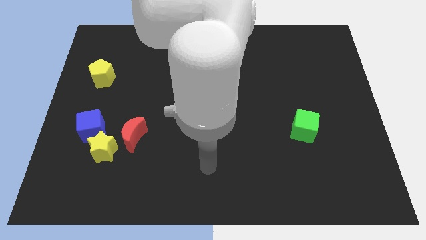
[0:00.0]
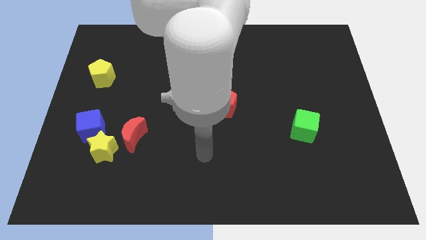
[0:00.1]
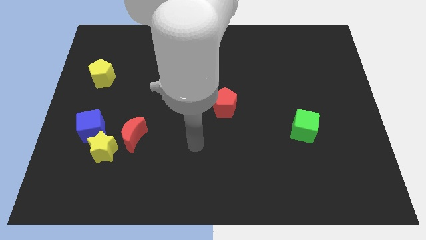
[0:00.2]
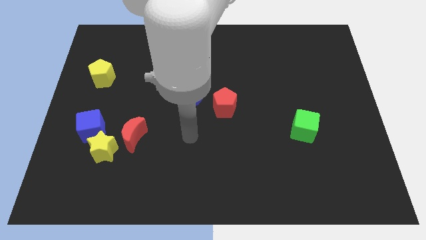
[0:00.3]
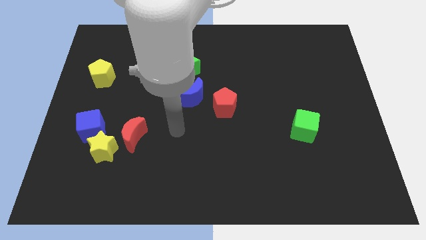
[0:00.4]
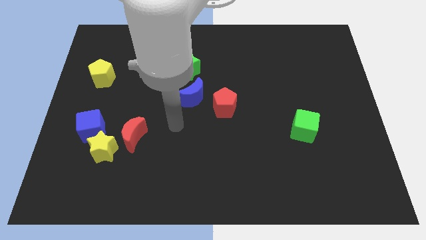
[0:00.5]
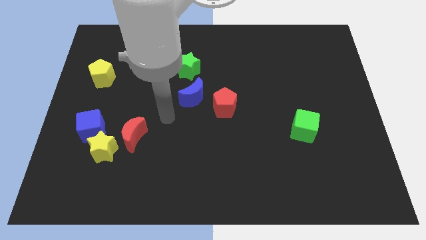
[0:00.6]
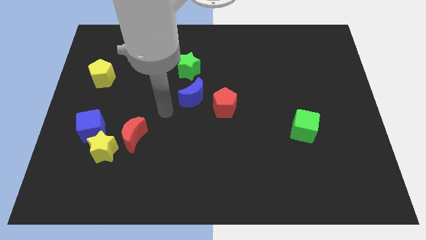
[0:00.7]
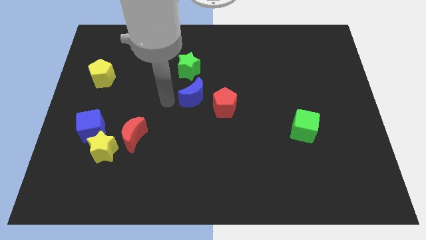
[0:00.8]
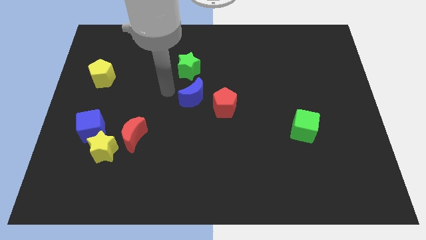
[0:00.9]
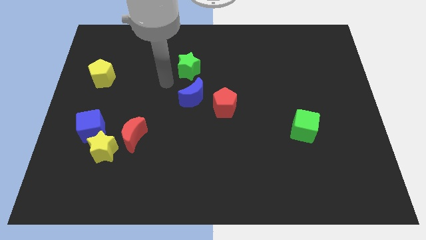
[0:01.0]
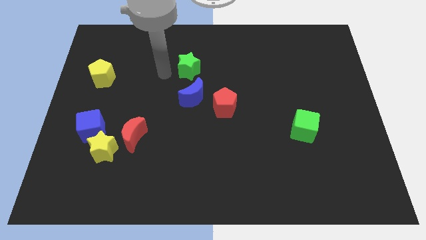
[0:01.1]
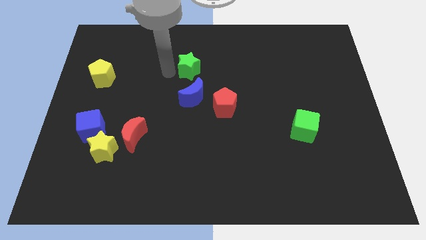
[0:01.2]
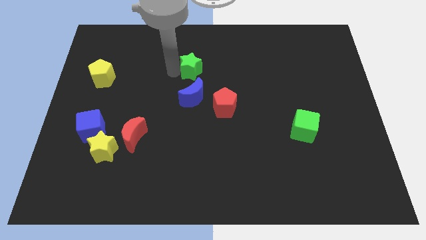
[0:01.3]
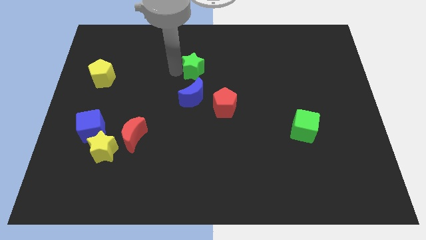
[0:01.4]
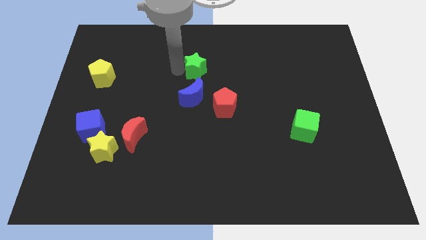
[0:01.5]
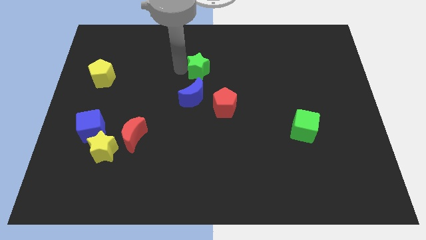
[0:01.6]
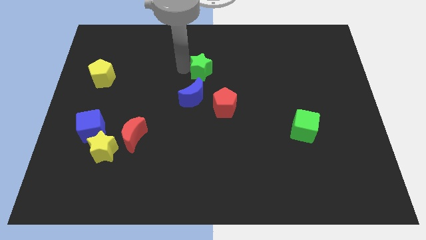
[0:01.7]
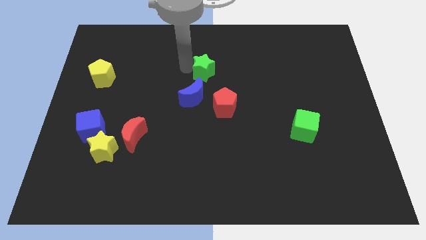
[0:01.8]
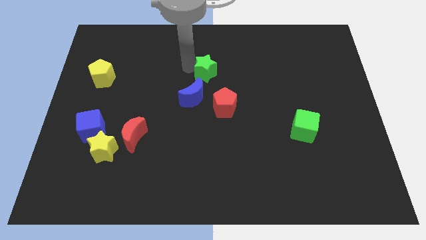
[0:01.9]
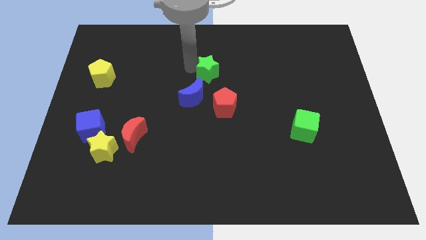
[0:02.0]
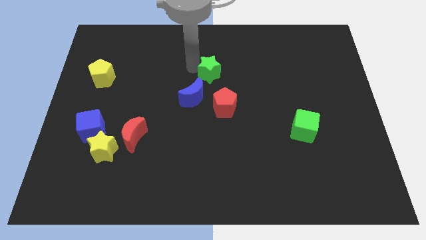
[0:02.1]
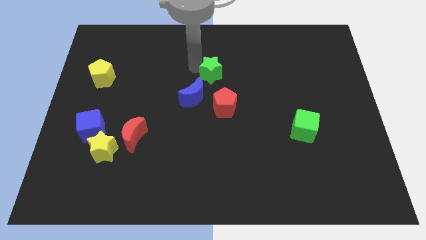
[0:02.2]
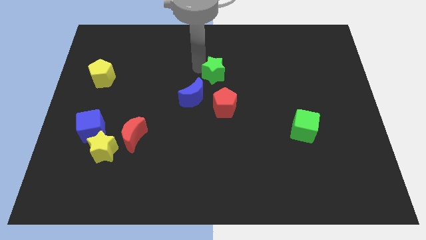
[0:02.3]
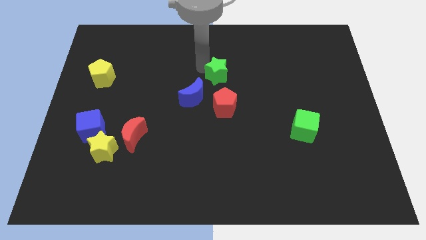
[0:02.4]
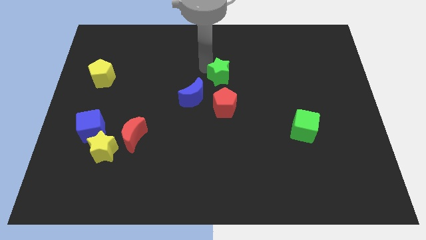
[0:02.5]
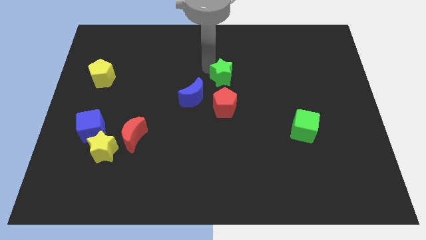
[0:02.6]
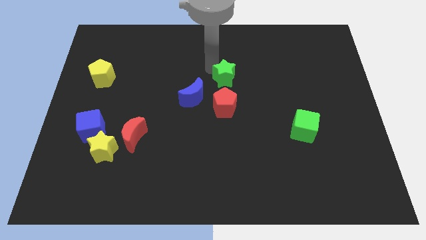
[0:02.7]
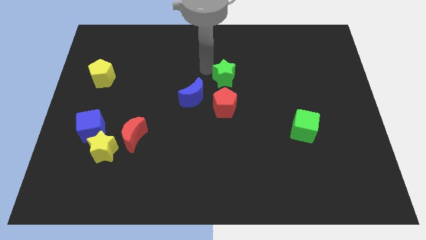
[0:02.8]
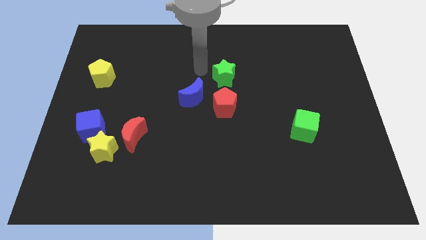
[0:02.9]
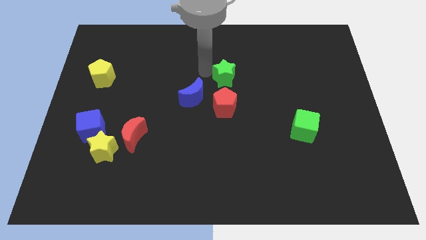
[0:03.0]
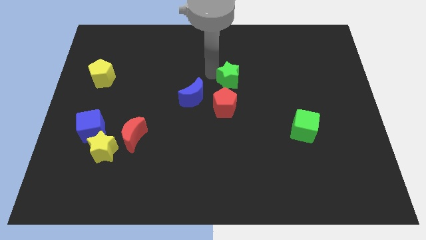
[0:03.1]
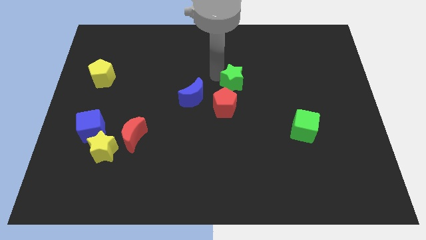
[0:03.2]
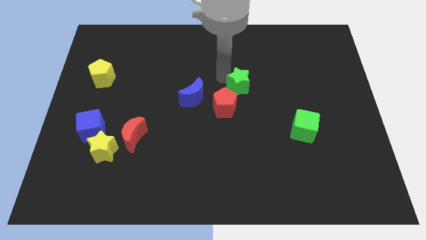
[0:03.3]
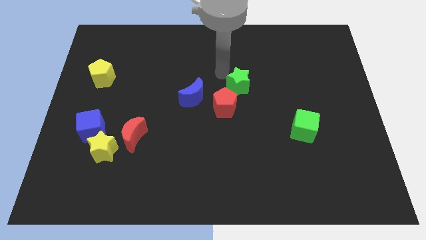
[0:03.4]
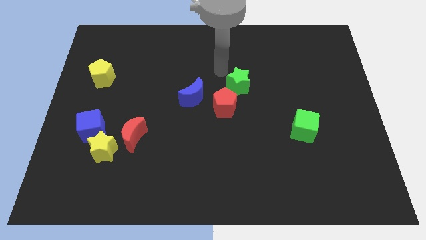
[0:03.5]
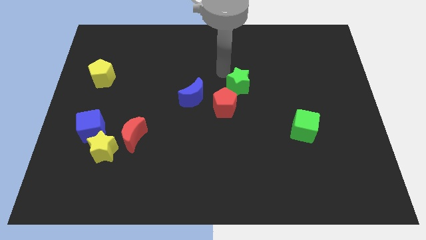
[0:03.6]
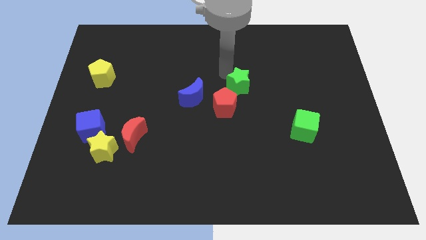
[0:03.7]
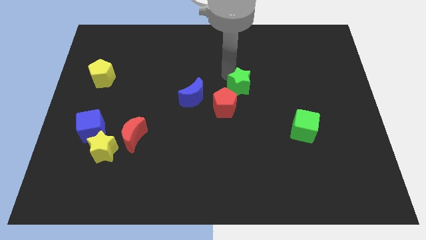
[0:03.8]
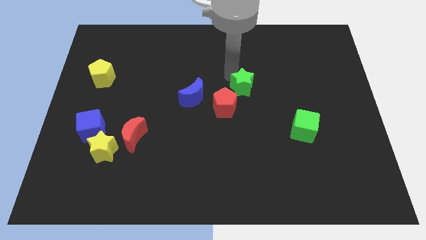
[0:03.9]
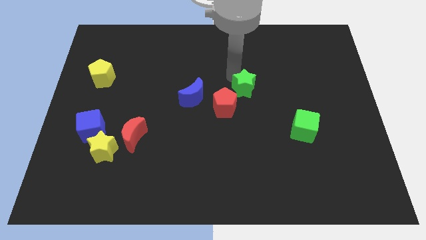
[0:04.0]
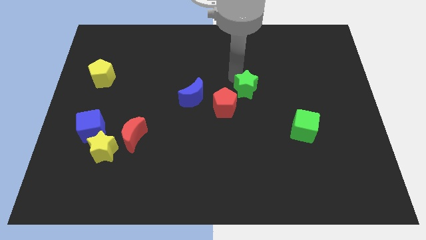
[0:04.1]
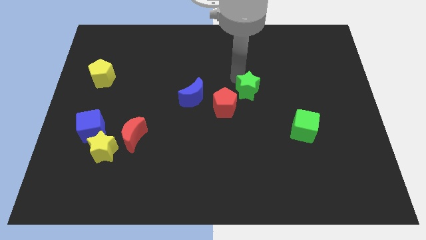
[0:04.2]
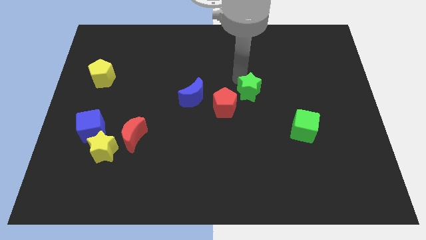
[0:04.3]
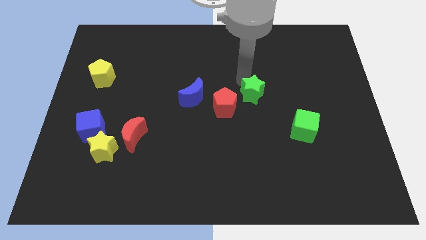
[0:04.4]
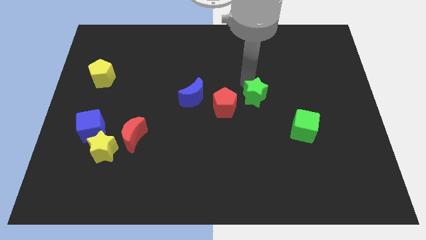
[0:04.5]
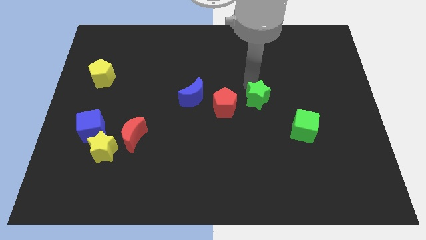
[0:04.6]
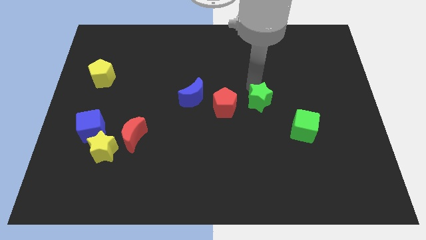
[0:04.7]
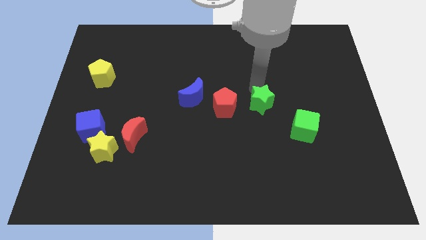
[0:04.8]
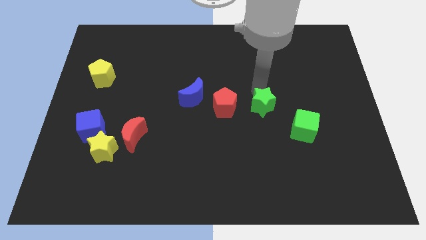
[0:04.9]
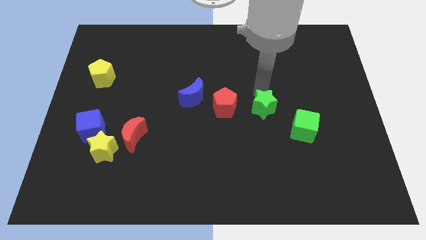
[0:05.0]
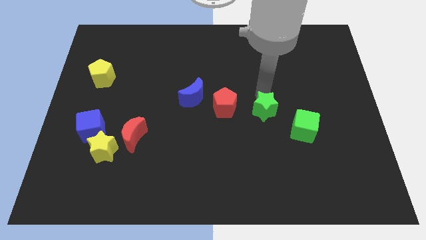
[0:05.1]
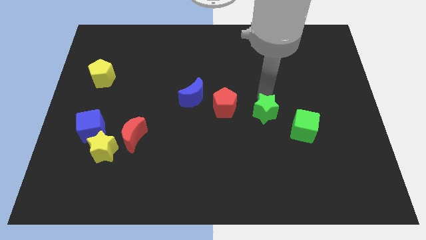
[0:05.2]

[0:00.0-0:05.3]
move the green star just left of the green cube

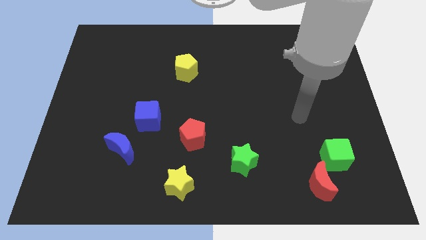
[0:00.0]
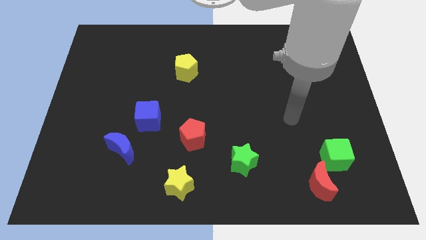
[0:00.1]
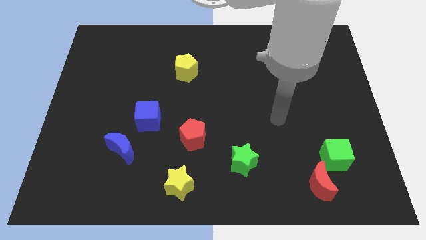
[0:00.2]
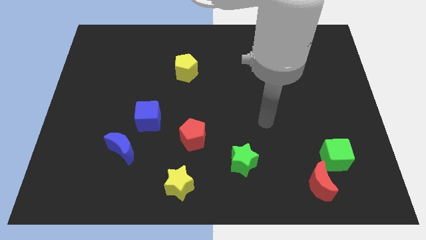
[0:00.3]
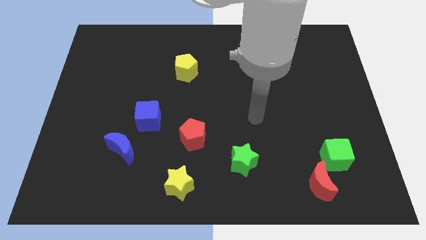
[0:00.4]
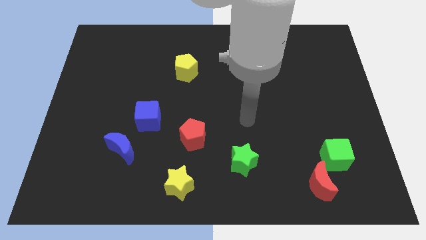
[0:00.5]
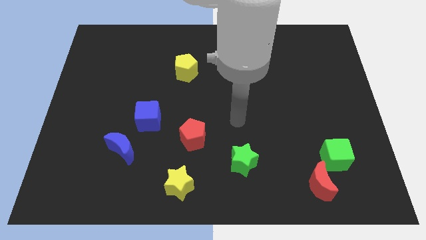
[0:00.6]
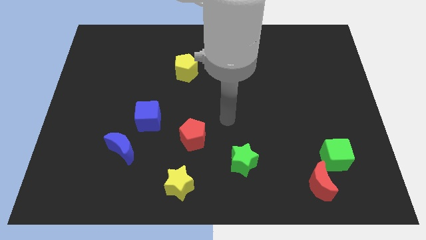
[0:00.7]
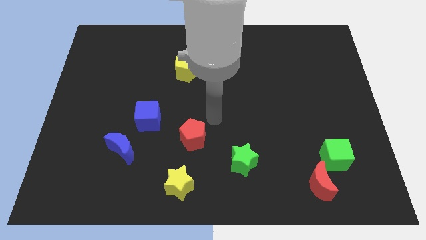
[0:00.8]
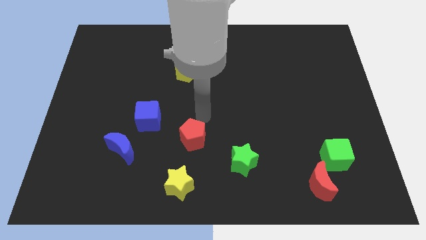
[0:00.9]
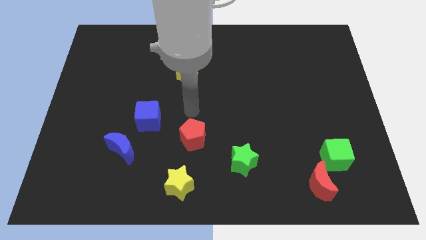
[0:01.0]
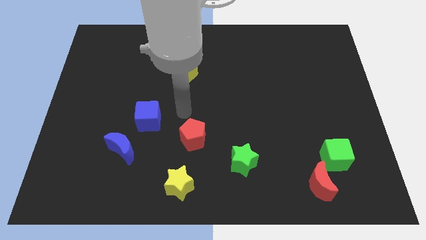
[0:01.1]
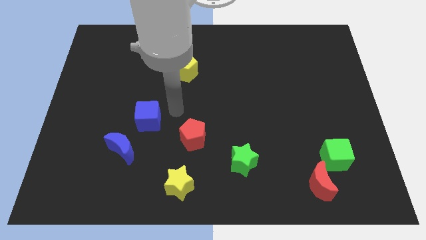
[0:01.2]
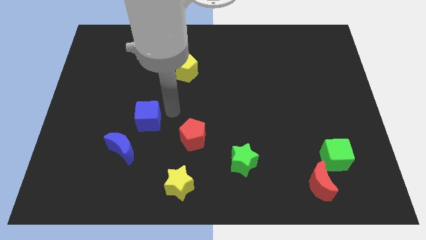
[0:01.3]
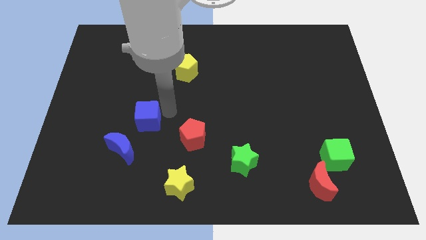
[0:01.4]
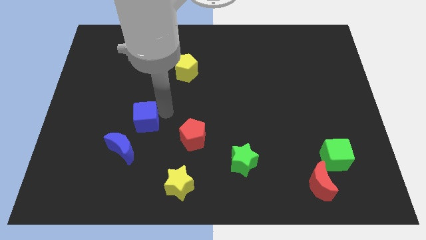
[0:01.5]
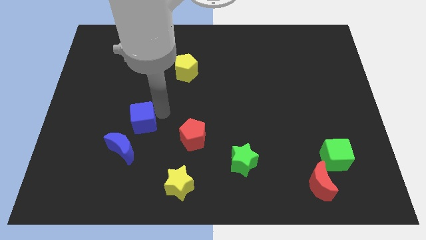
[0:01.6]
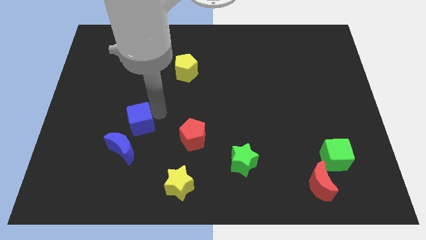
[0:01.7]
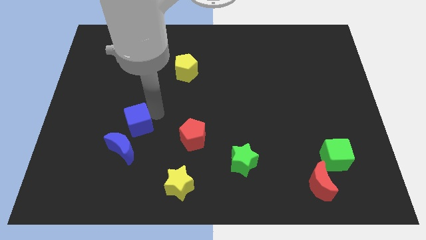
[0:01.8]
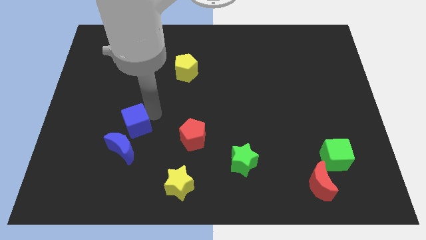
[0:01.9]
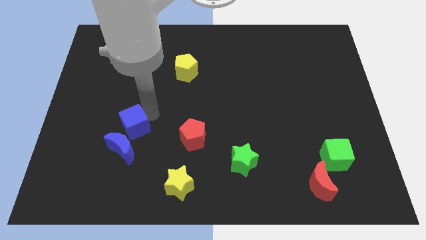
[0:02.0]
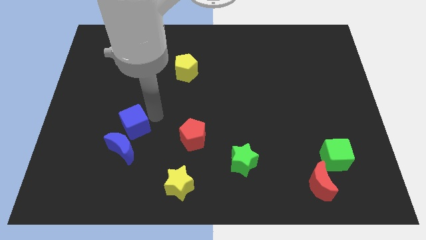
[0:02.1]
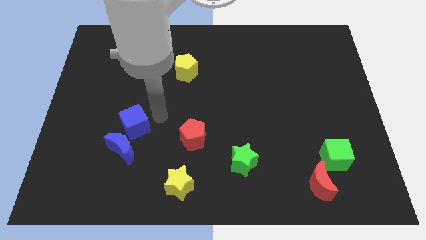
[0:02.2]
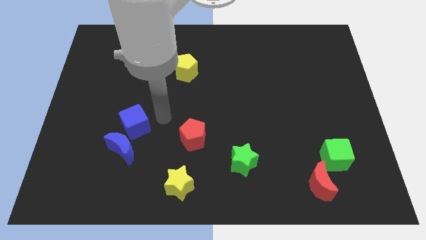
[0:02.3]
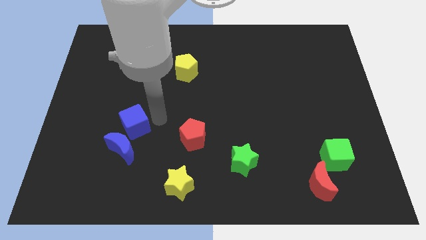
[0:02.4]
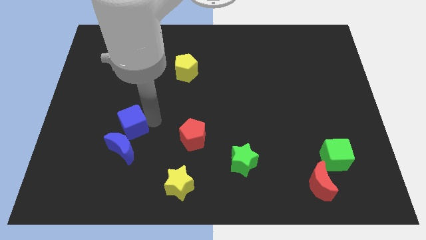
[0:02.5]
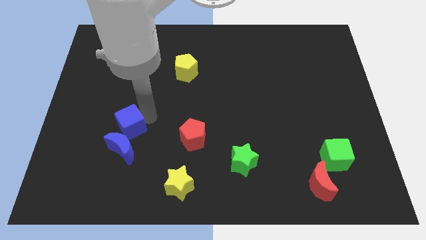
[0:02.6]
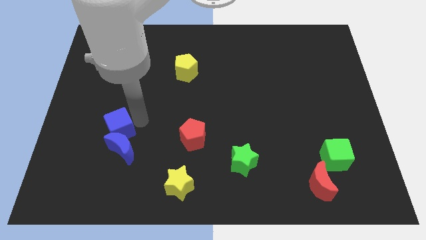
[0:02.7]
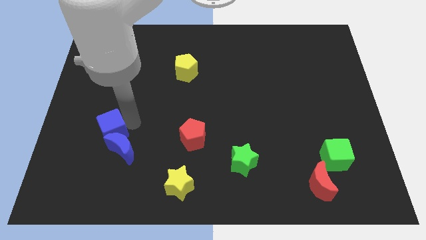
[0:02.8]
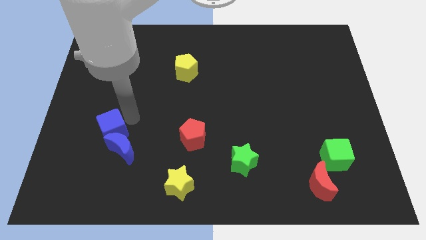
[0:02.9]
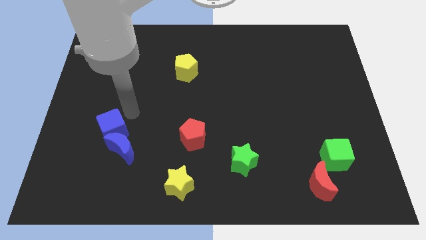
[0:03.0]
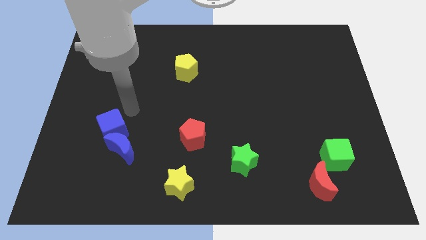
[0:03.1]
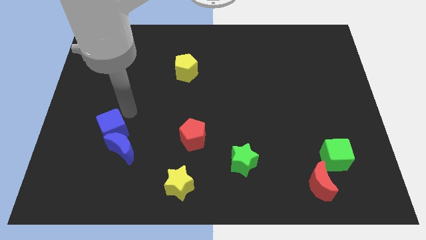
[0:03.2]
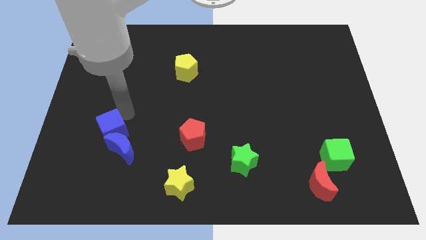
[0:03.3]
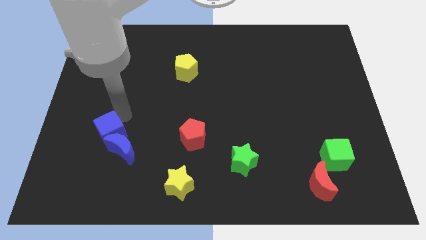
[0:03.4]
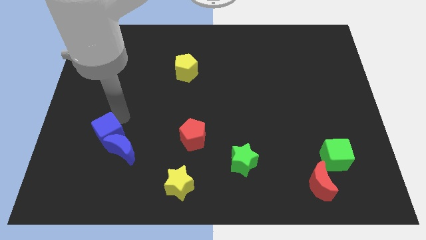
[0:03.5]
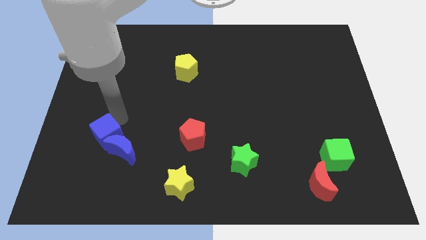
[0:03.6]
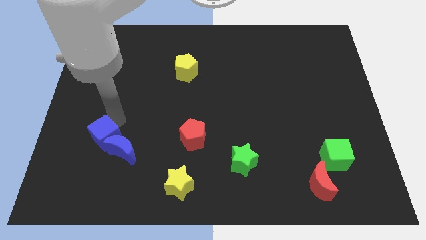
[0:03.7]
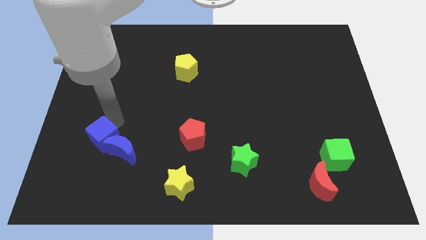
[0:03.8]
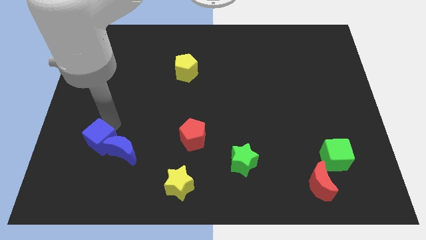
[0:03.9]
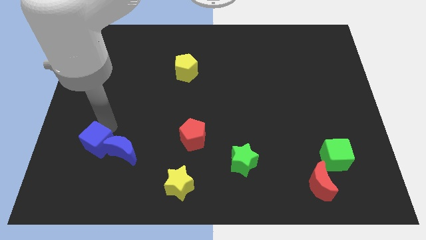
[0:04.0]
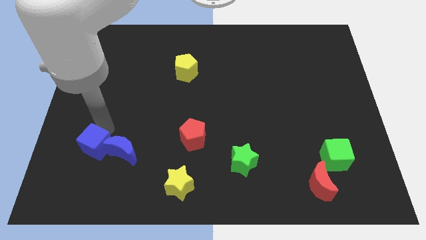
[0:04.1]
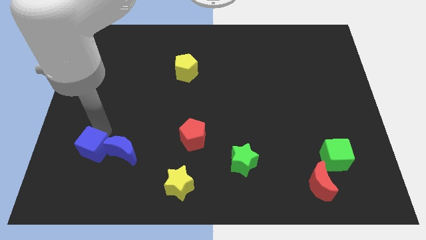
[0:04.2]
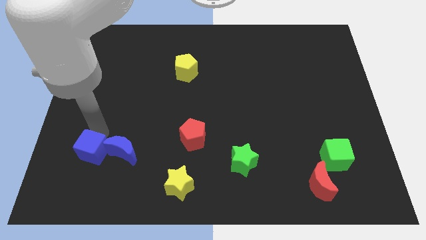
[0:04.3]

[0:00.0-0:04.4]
put the blue cube diagonally down and to the left of the blue moon
